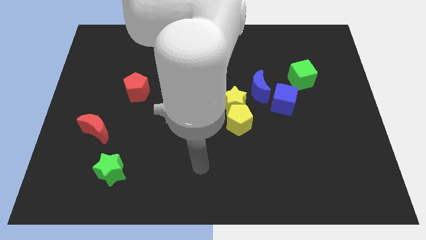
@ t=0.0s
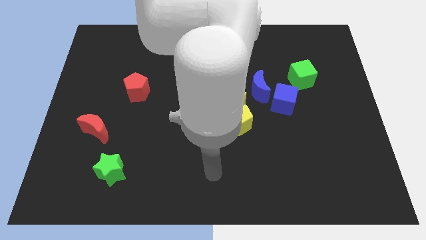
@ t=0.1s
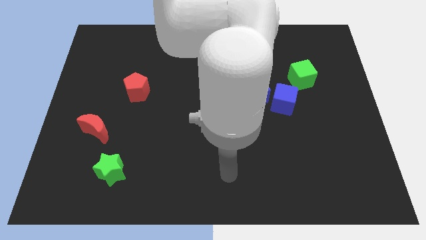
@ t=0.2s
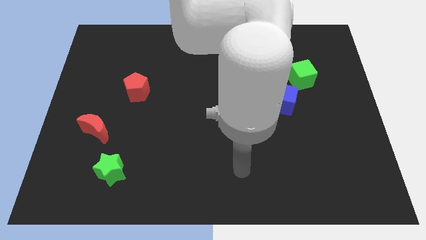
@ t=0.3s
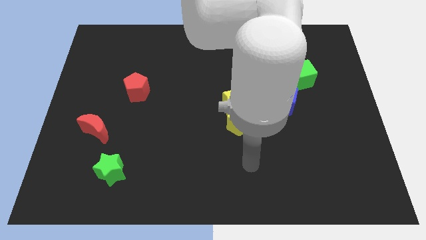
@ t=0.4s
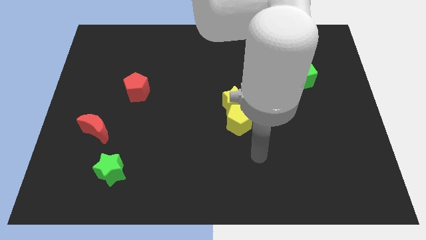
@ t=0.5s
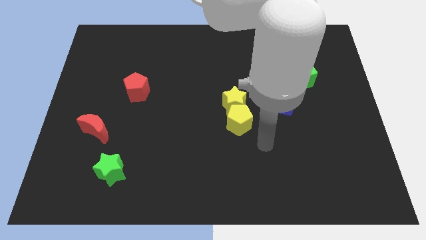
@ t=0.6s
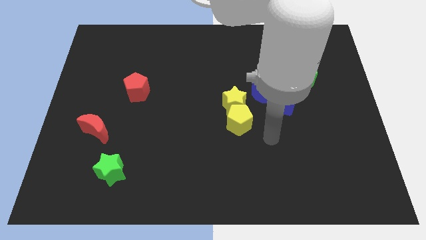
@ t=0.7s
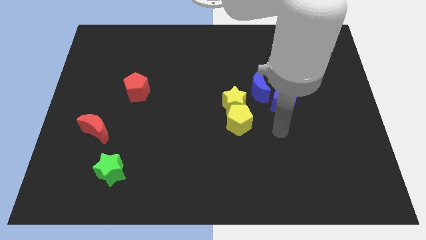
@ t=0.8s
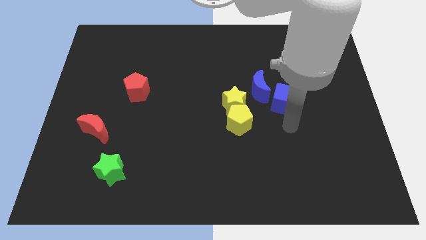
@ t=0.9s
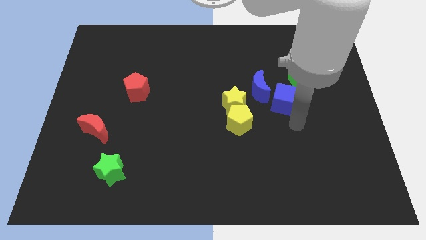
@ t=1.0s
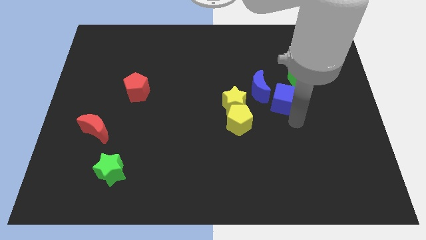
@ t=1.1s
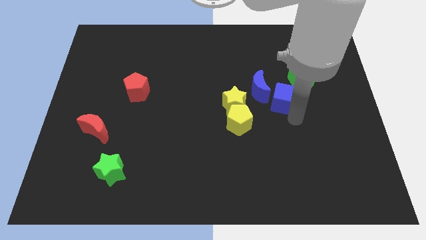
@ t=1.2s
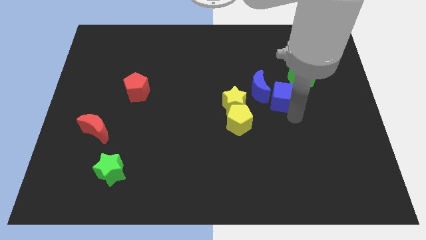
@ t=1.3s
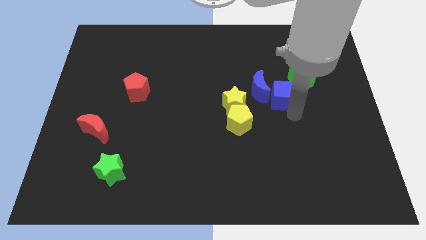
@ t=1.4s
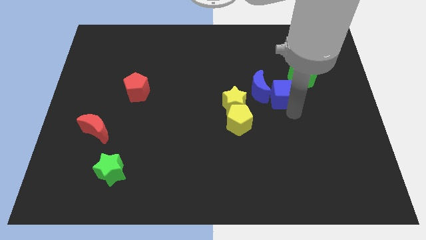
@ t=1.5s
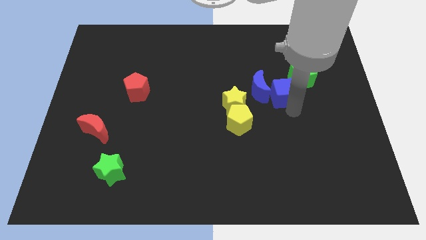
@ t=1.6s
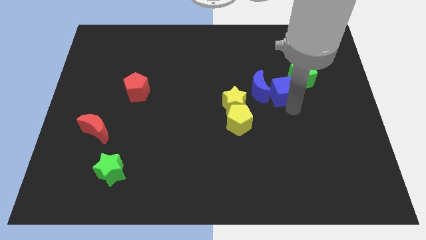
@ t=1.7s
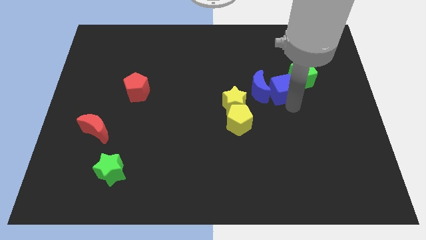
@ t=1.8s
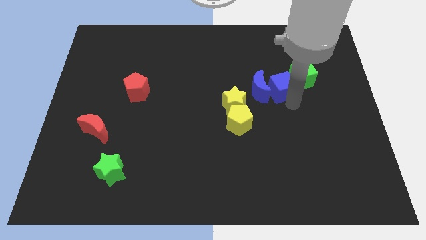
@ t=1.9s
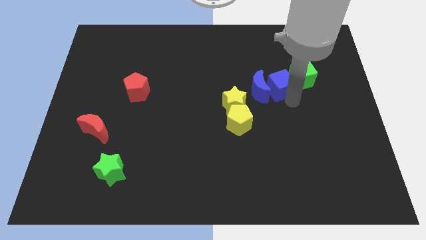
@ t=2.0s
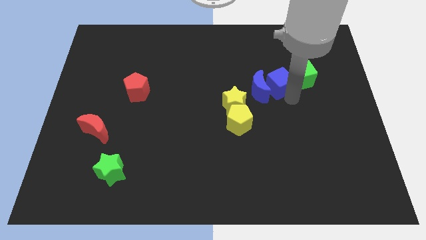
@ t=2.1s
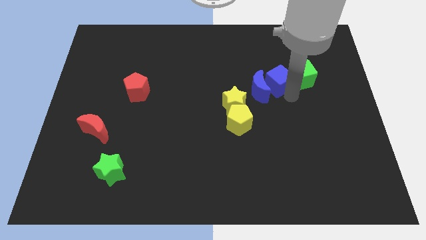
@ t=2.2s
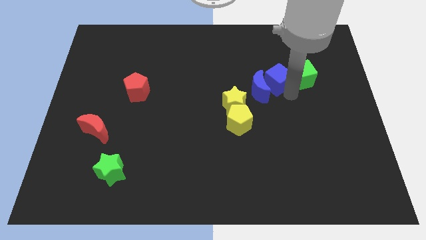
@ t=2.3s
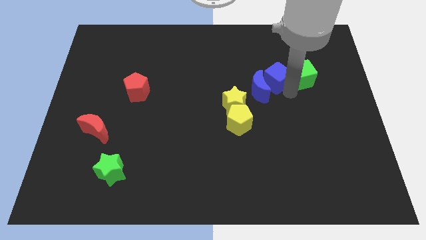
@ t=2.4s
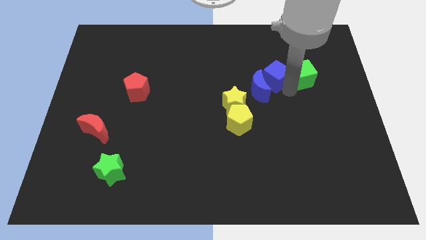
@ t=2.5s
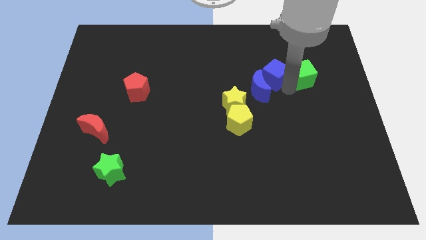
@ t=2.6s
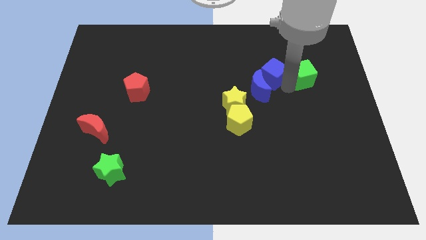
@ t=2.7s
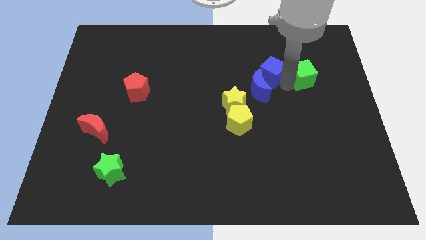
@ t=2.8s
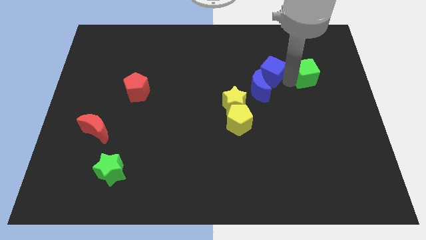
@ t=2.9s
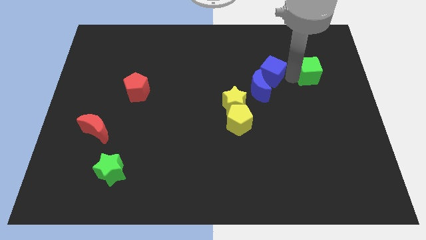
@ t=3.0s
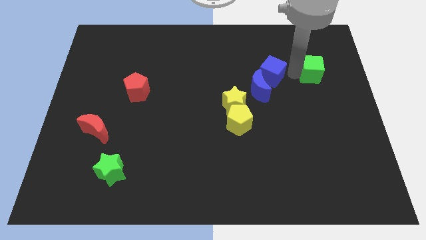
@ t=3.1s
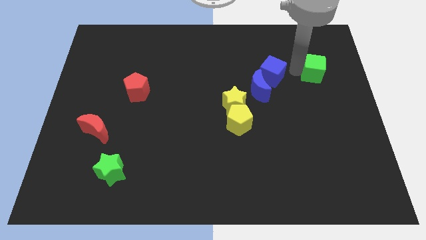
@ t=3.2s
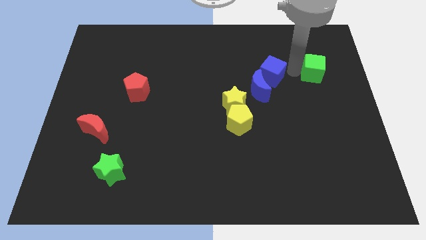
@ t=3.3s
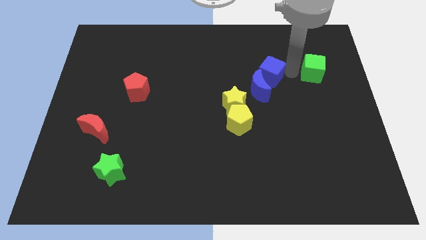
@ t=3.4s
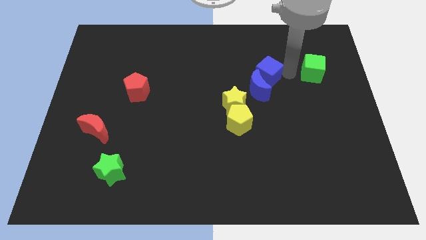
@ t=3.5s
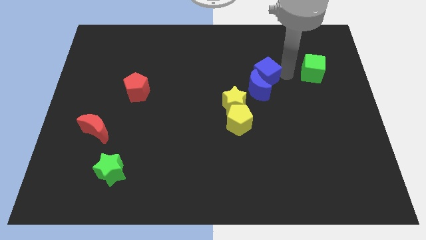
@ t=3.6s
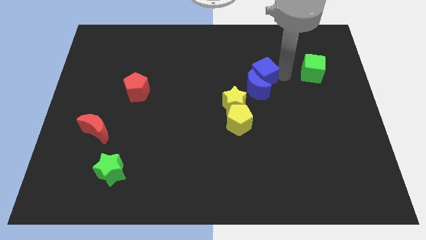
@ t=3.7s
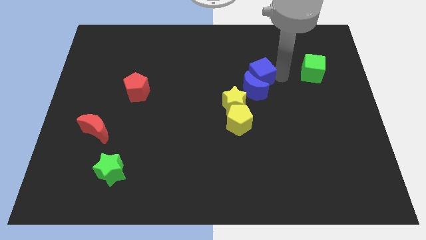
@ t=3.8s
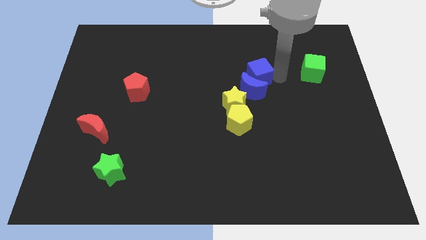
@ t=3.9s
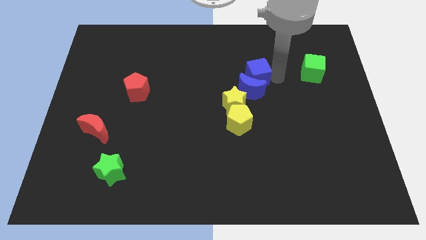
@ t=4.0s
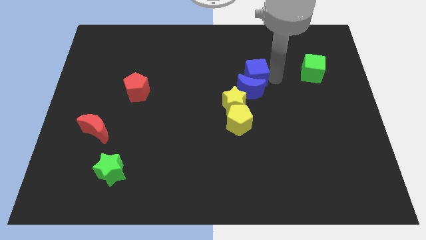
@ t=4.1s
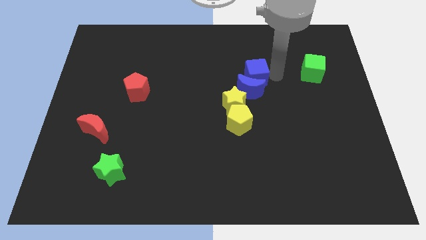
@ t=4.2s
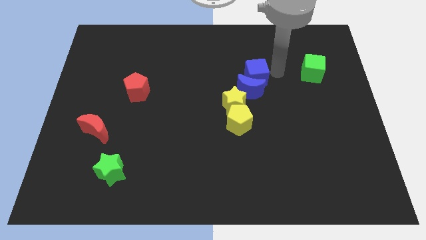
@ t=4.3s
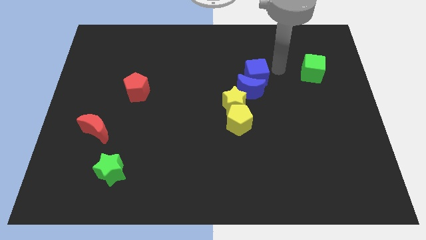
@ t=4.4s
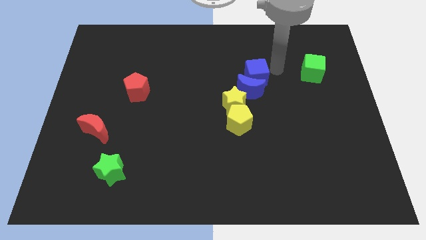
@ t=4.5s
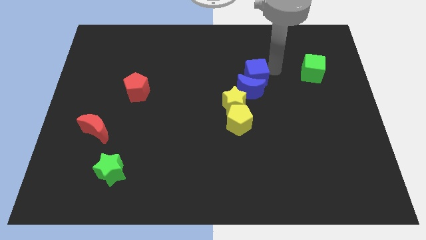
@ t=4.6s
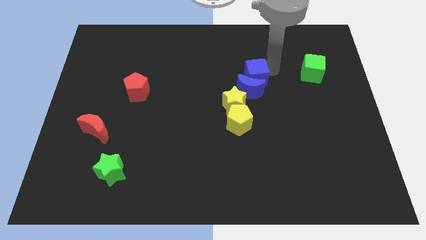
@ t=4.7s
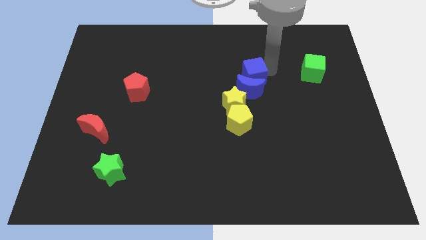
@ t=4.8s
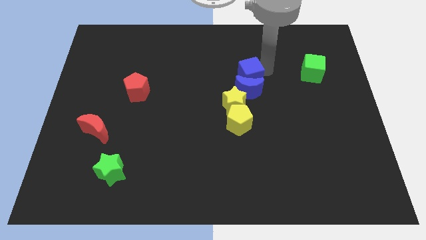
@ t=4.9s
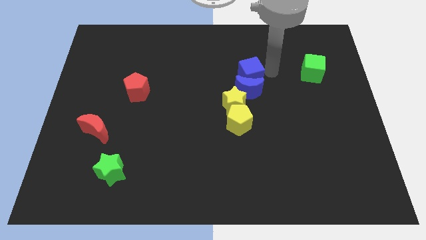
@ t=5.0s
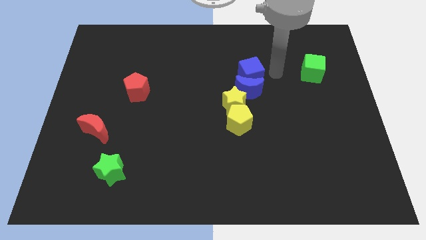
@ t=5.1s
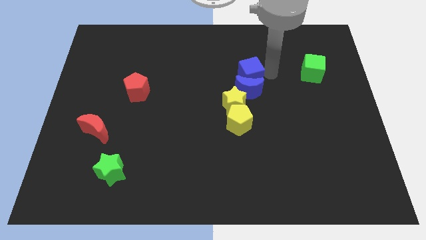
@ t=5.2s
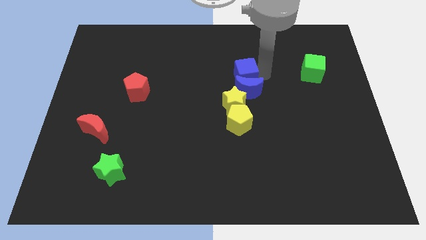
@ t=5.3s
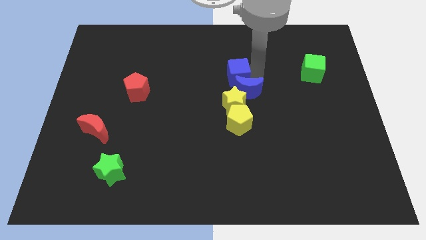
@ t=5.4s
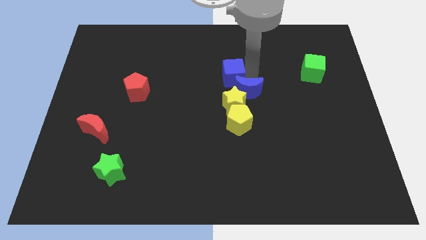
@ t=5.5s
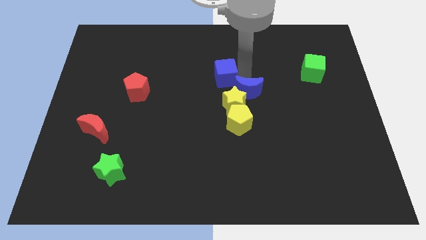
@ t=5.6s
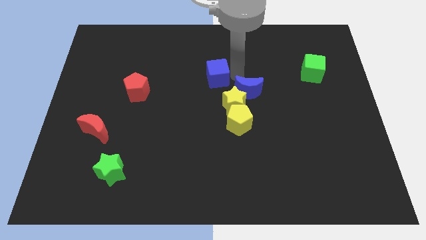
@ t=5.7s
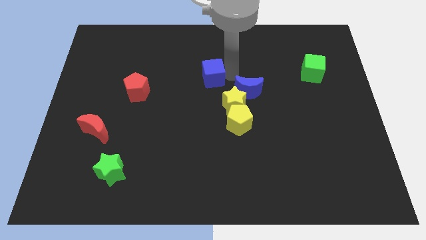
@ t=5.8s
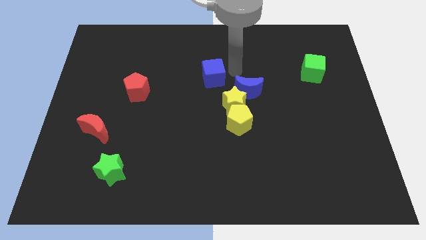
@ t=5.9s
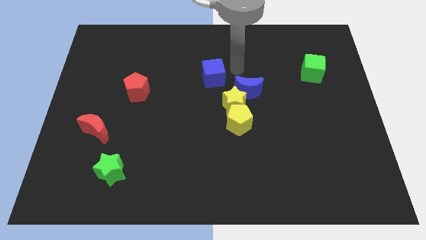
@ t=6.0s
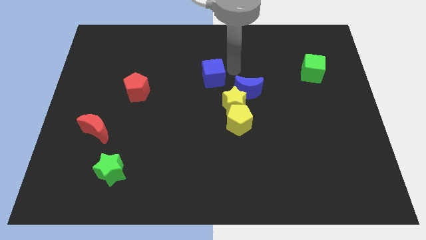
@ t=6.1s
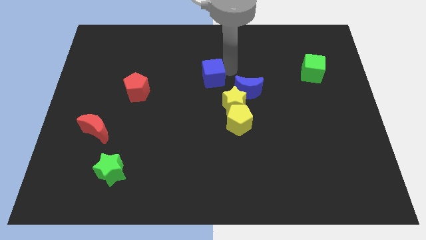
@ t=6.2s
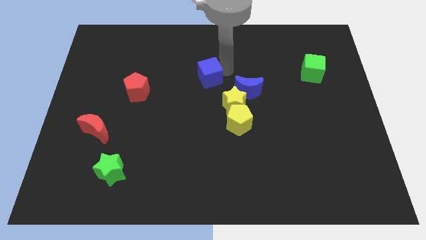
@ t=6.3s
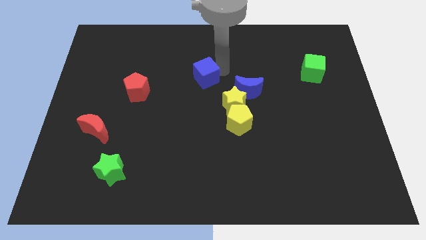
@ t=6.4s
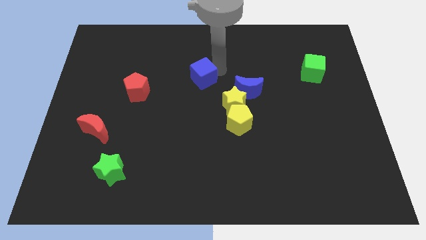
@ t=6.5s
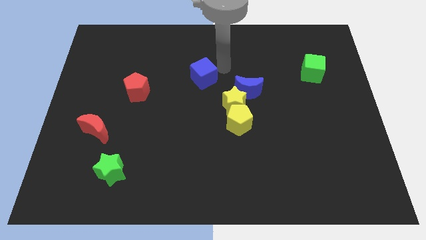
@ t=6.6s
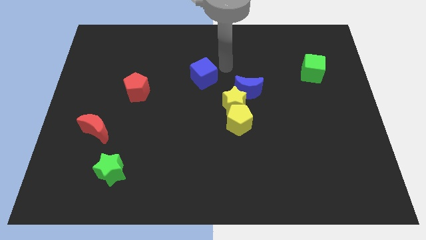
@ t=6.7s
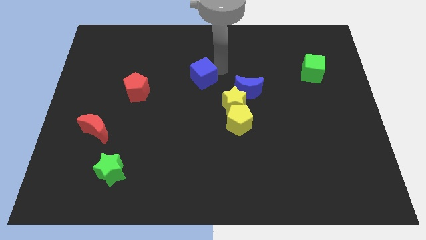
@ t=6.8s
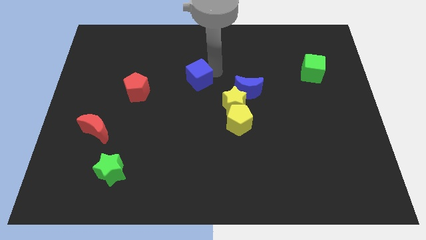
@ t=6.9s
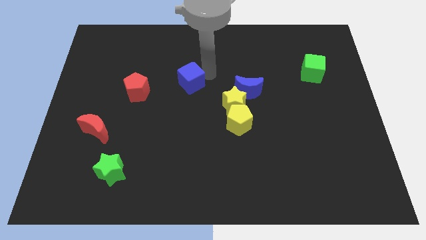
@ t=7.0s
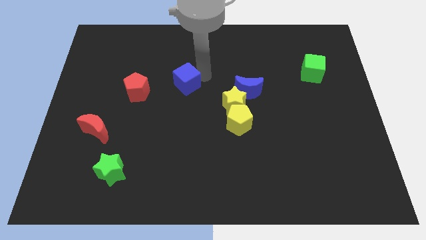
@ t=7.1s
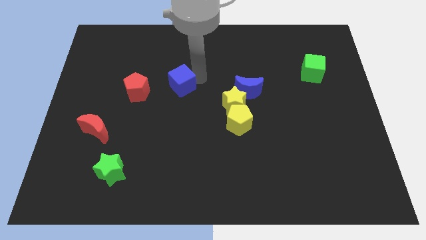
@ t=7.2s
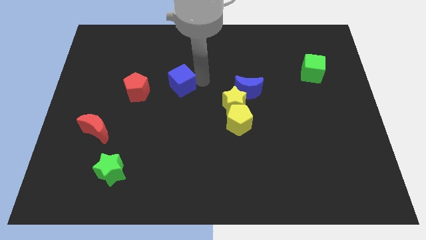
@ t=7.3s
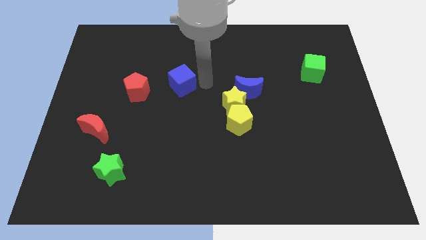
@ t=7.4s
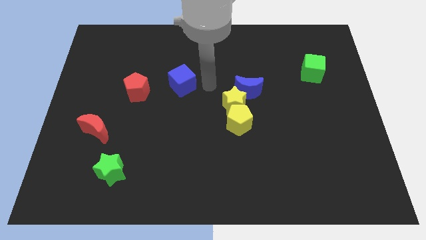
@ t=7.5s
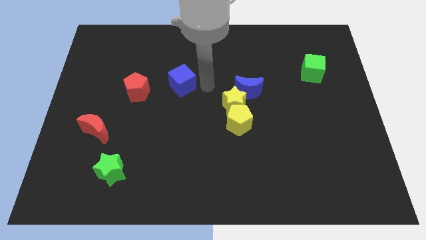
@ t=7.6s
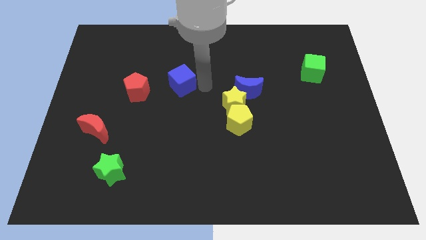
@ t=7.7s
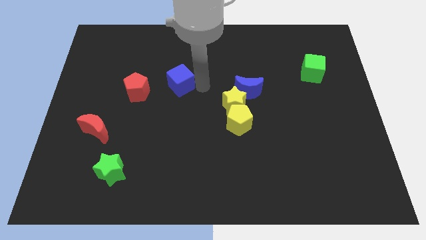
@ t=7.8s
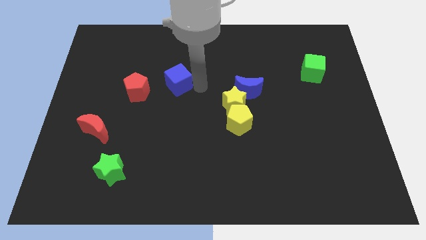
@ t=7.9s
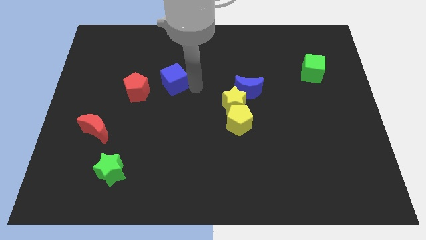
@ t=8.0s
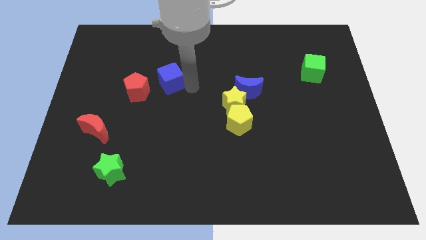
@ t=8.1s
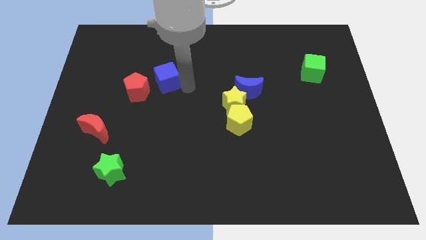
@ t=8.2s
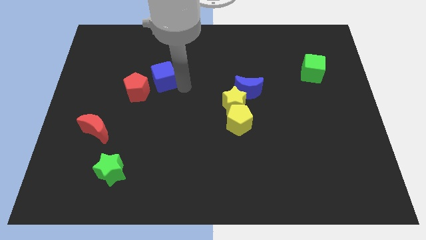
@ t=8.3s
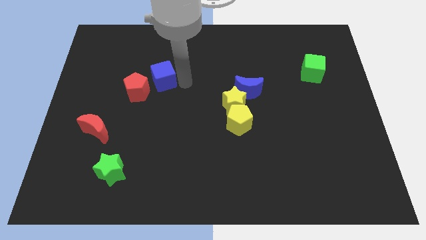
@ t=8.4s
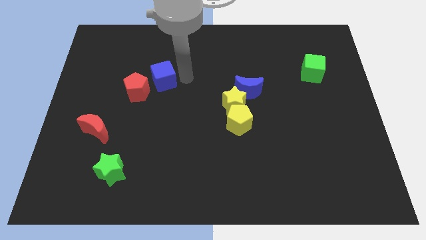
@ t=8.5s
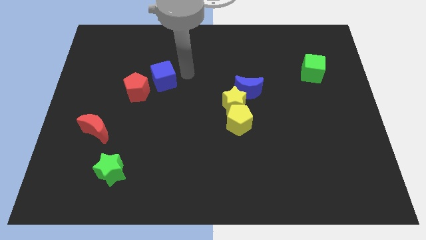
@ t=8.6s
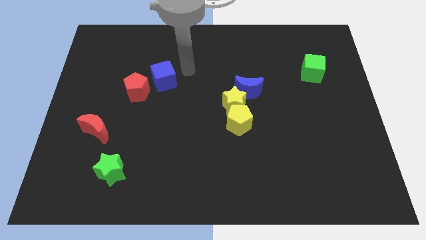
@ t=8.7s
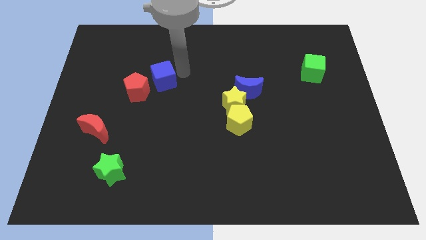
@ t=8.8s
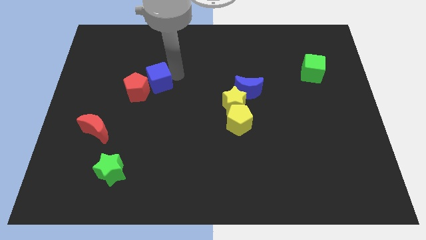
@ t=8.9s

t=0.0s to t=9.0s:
push the blue cube next to the red pentagon
